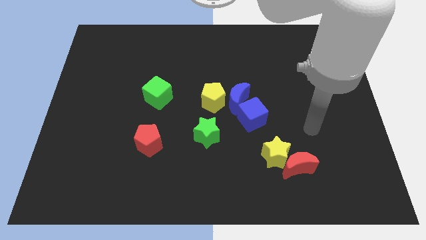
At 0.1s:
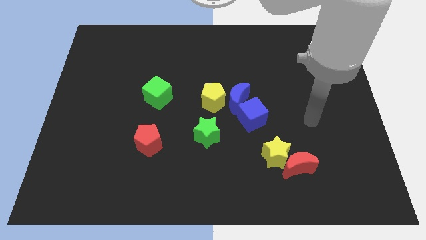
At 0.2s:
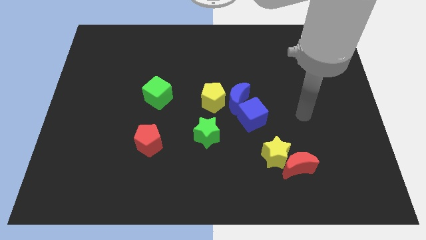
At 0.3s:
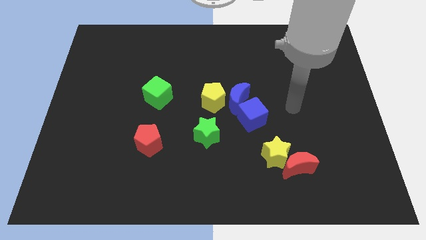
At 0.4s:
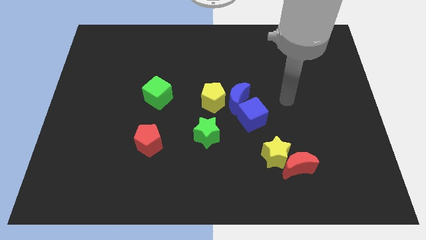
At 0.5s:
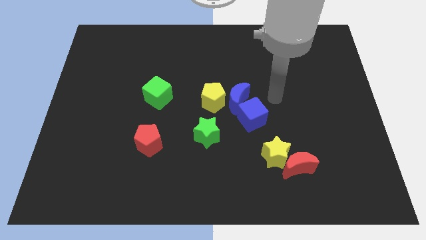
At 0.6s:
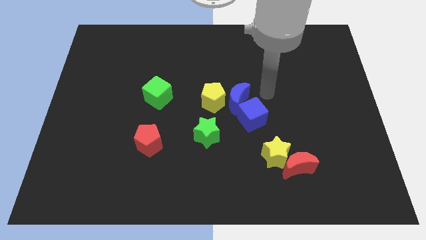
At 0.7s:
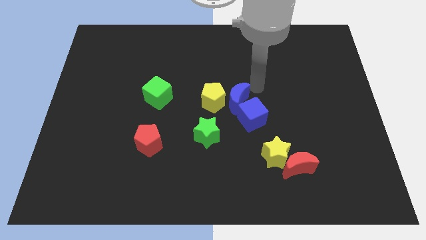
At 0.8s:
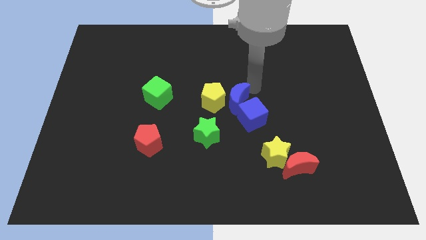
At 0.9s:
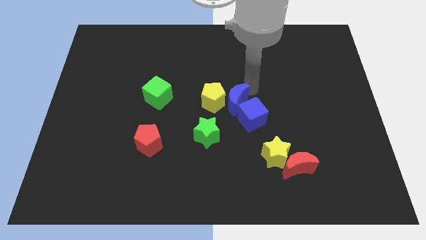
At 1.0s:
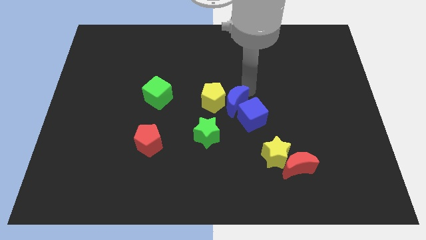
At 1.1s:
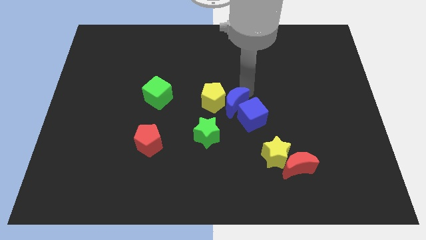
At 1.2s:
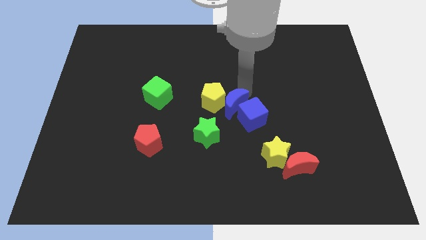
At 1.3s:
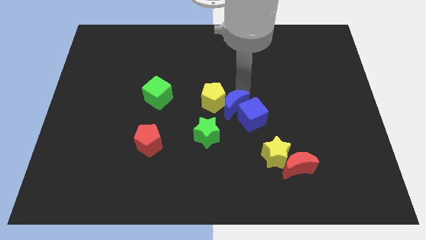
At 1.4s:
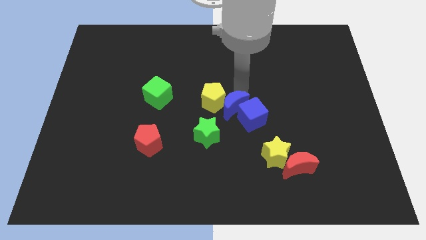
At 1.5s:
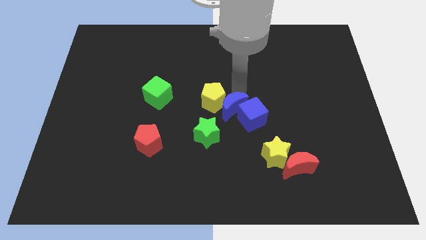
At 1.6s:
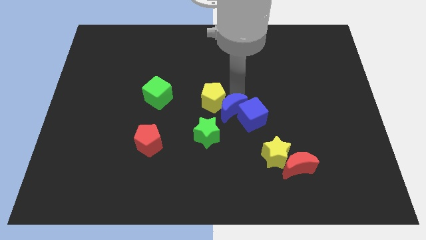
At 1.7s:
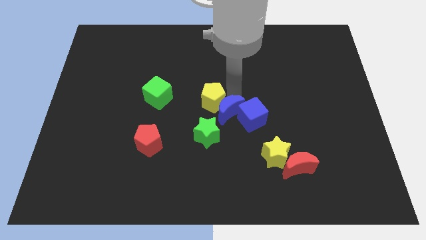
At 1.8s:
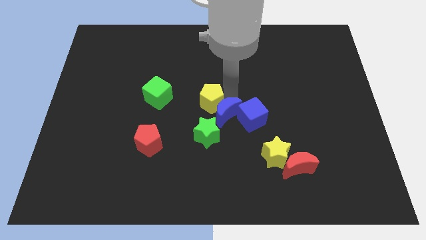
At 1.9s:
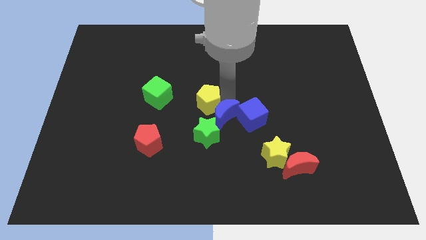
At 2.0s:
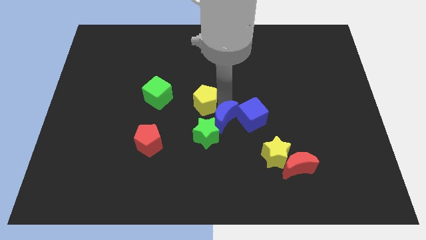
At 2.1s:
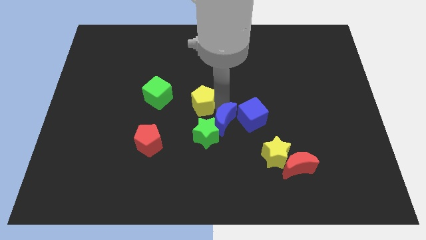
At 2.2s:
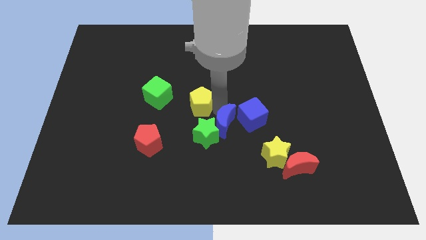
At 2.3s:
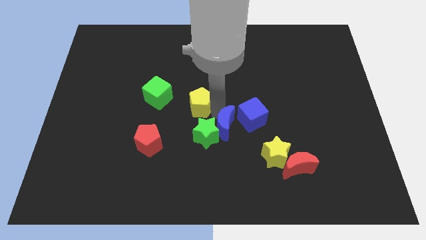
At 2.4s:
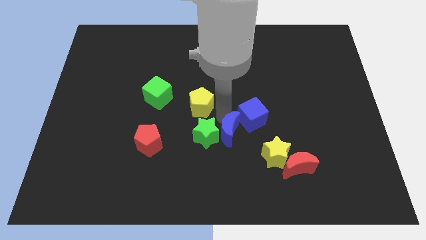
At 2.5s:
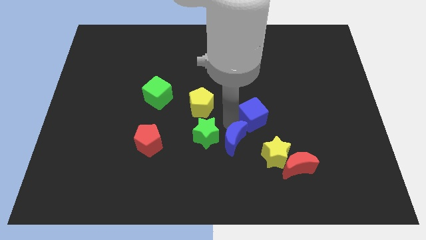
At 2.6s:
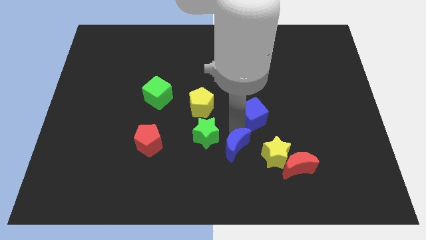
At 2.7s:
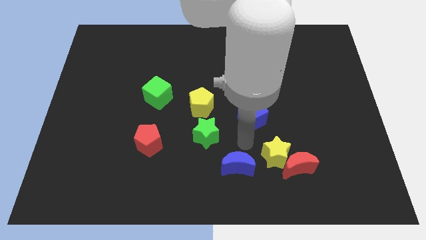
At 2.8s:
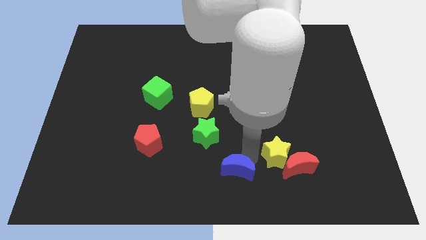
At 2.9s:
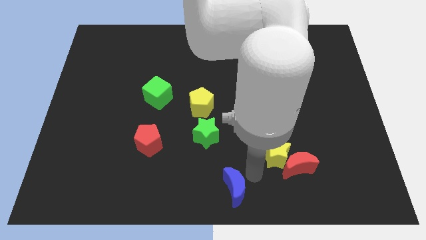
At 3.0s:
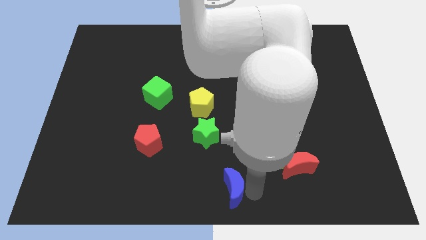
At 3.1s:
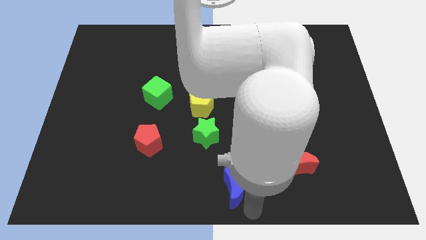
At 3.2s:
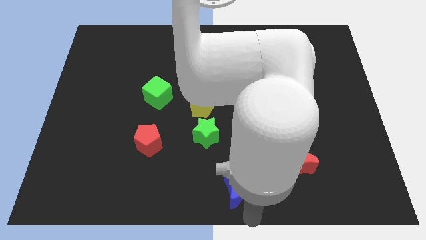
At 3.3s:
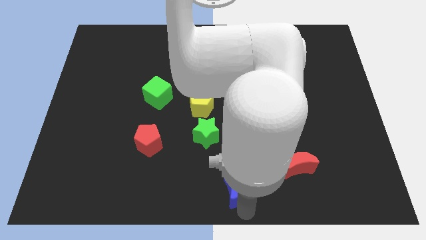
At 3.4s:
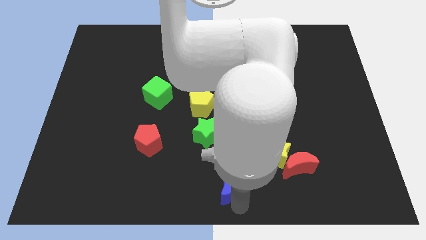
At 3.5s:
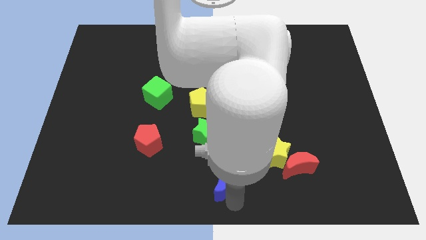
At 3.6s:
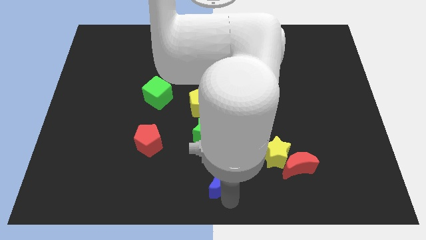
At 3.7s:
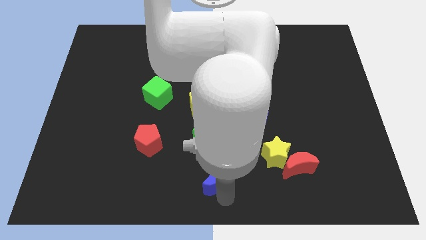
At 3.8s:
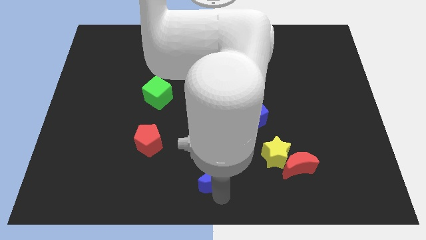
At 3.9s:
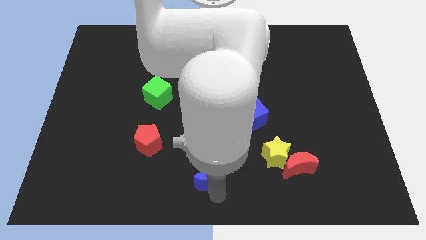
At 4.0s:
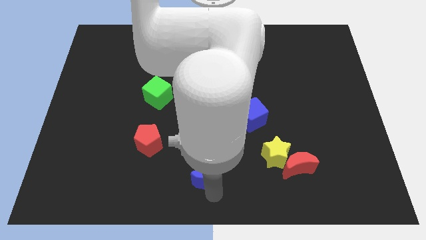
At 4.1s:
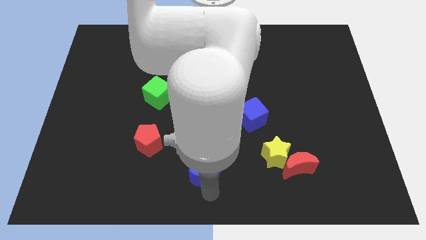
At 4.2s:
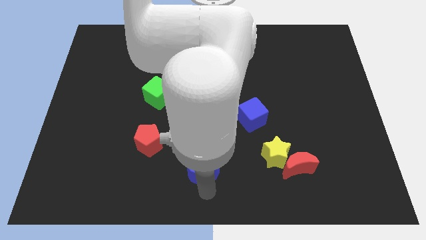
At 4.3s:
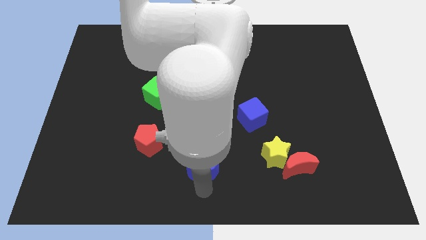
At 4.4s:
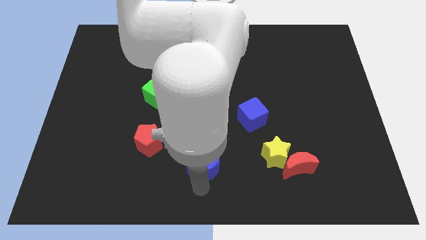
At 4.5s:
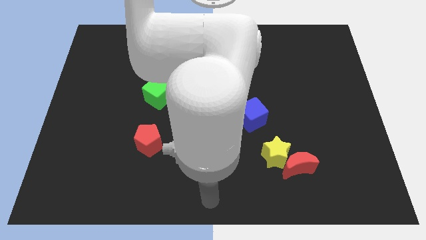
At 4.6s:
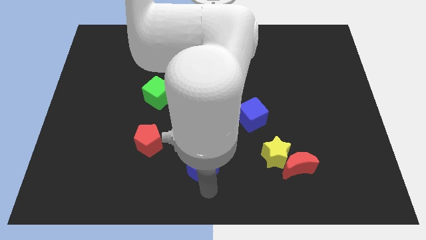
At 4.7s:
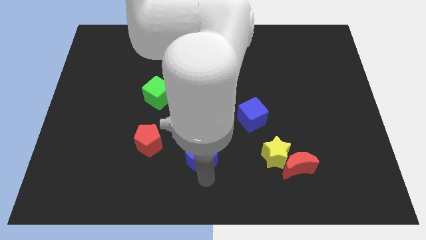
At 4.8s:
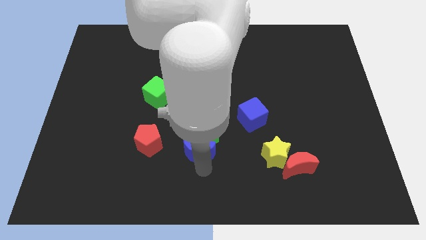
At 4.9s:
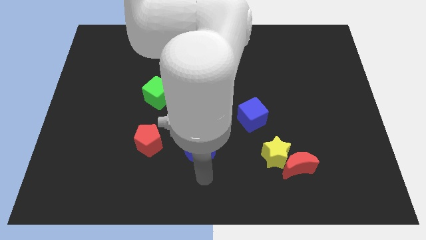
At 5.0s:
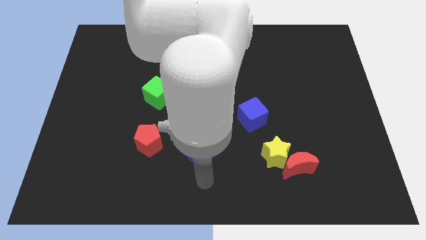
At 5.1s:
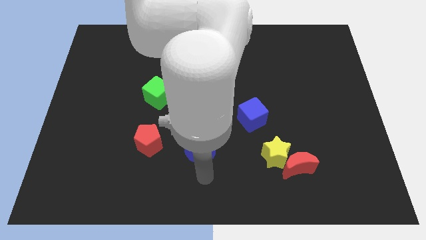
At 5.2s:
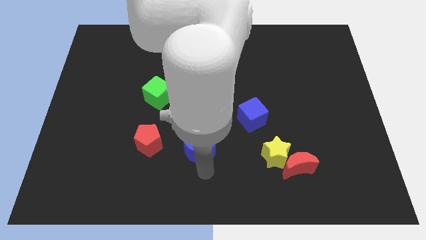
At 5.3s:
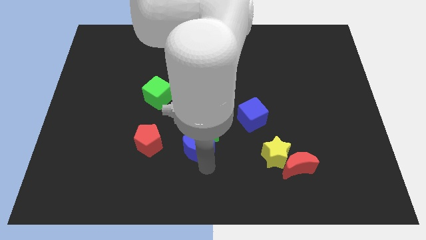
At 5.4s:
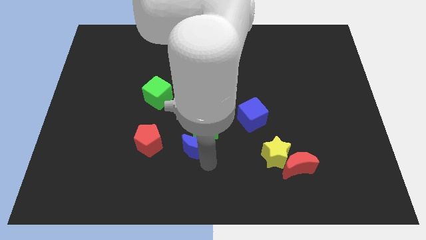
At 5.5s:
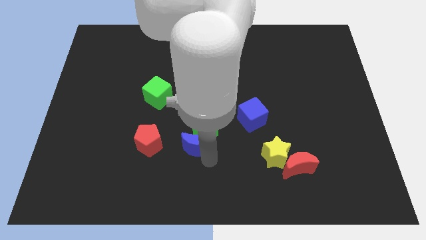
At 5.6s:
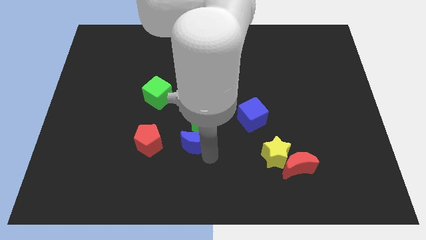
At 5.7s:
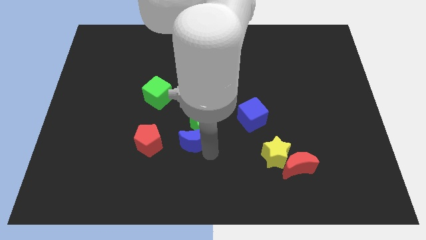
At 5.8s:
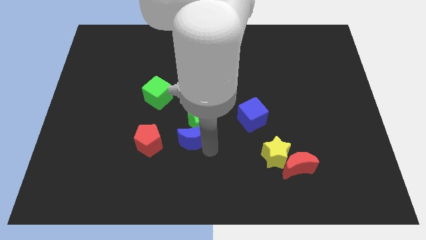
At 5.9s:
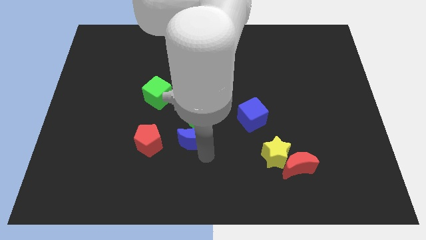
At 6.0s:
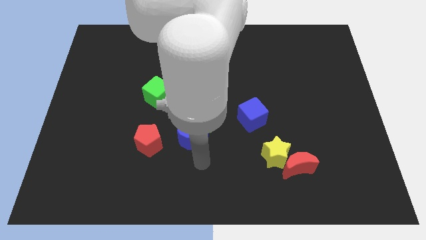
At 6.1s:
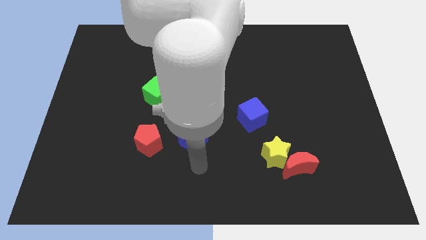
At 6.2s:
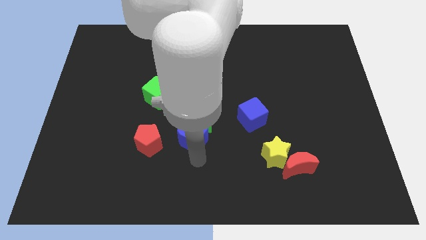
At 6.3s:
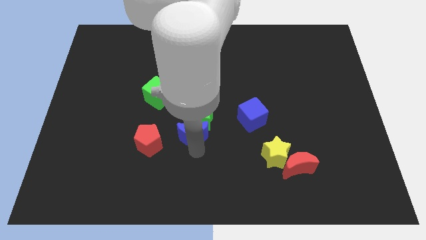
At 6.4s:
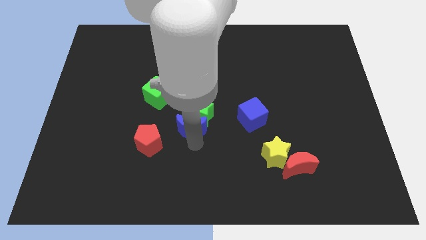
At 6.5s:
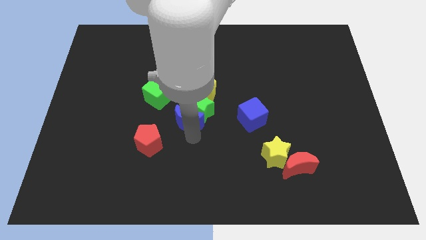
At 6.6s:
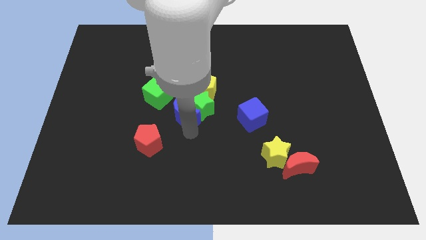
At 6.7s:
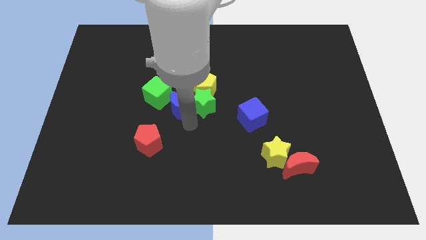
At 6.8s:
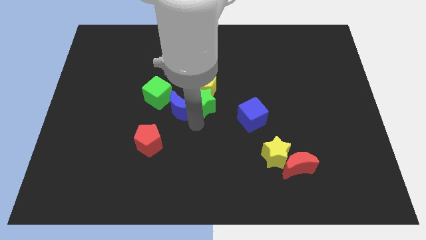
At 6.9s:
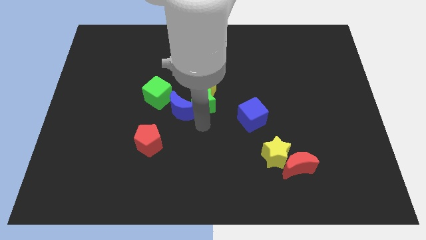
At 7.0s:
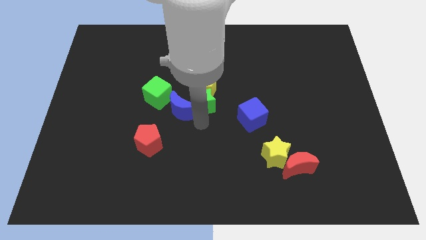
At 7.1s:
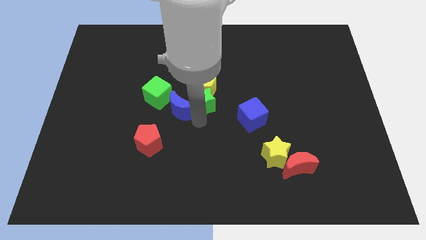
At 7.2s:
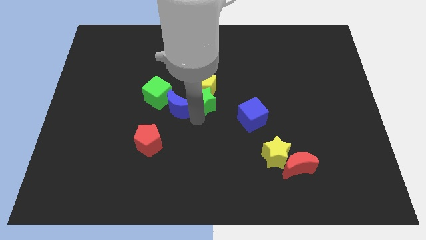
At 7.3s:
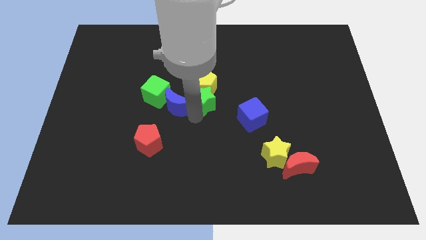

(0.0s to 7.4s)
slide the blue moon close to the green cube

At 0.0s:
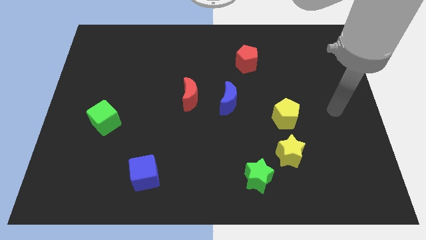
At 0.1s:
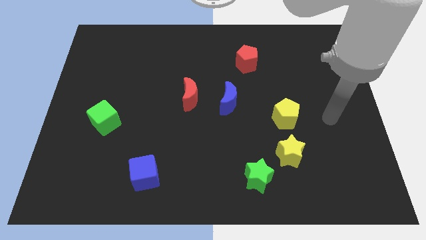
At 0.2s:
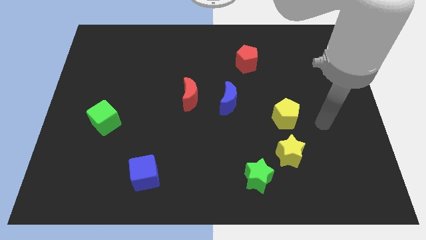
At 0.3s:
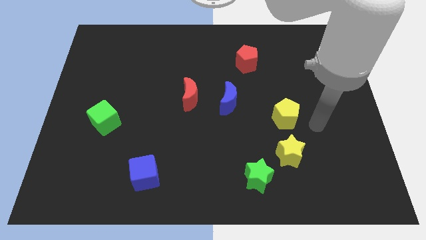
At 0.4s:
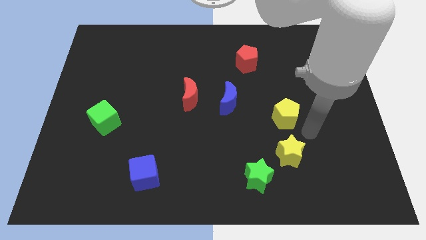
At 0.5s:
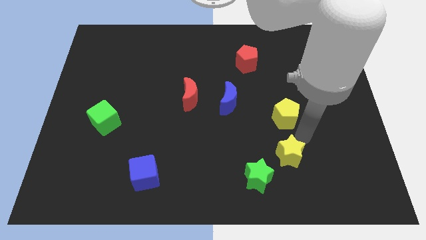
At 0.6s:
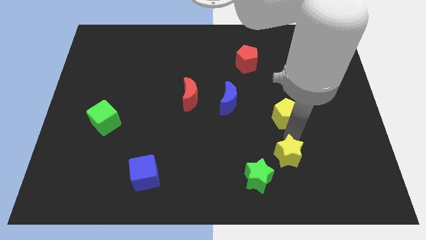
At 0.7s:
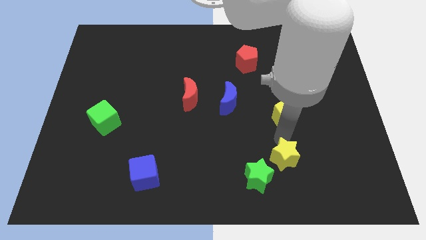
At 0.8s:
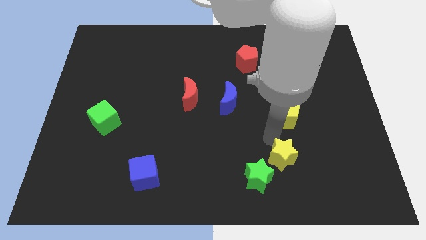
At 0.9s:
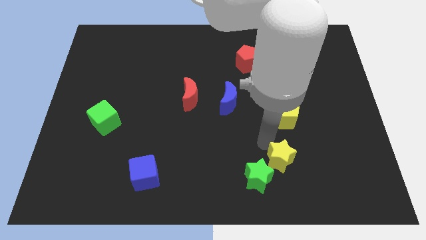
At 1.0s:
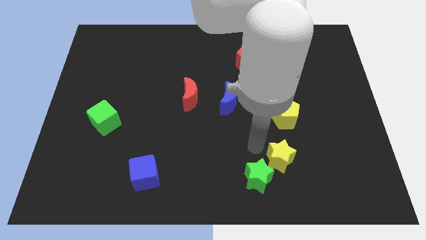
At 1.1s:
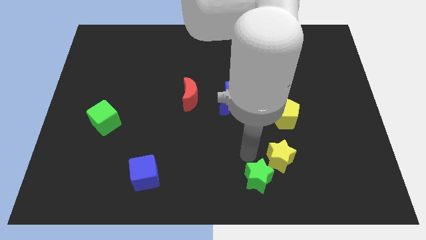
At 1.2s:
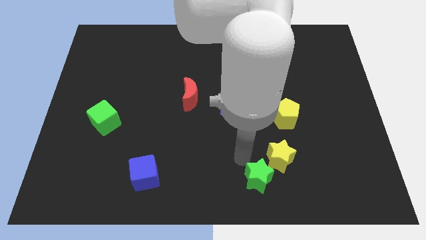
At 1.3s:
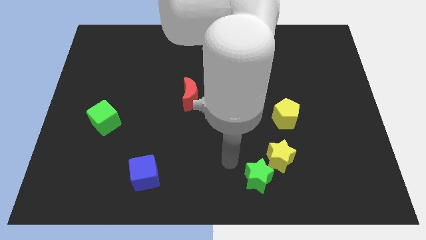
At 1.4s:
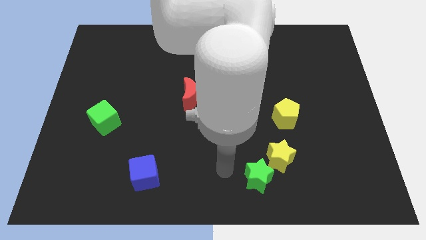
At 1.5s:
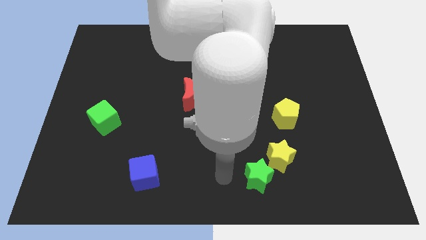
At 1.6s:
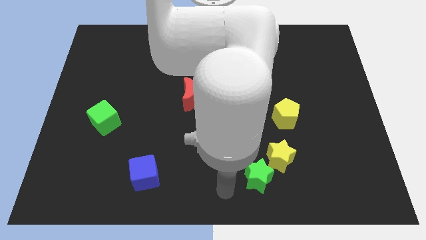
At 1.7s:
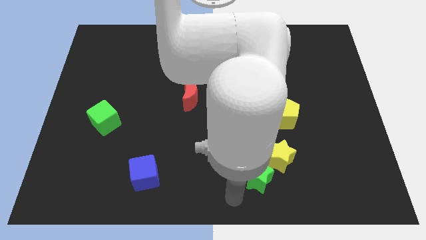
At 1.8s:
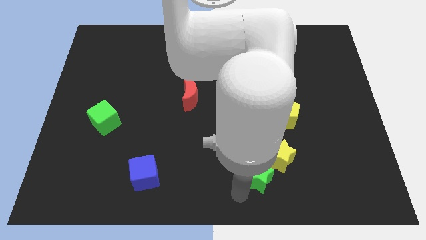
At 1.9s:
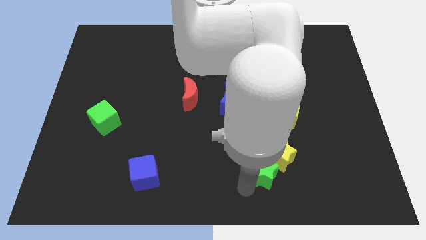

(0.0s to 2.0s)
slide the green star to the yellow star
